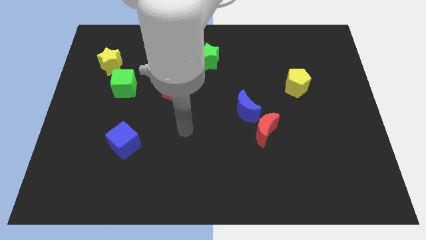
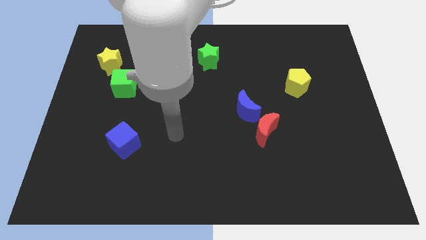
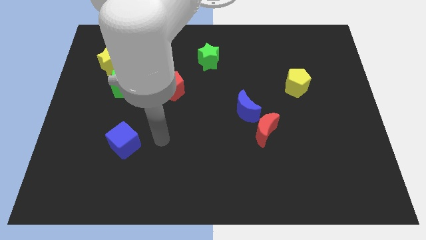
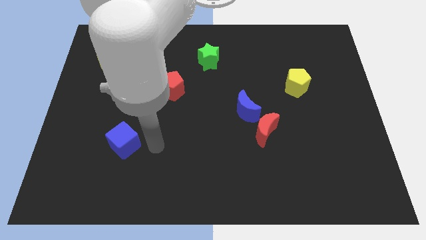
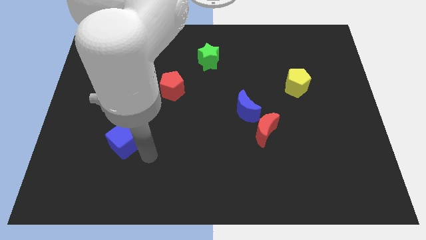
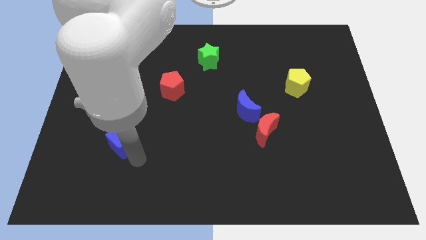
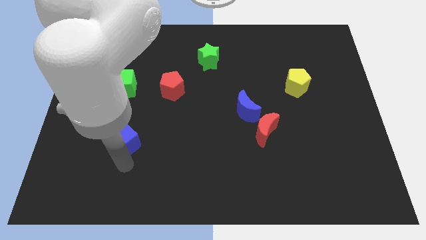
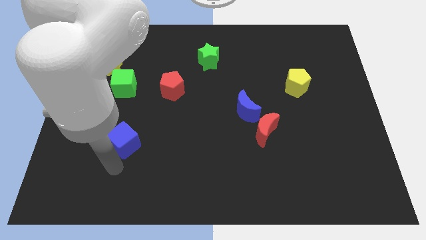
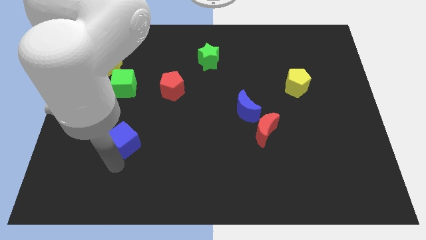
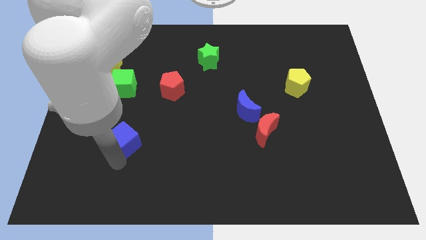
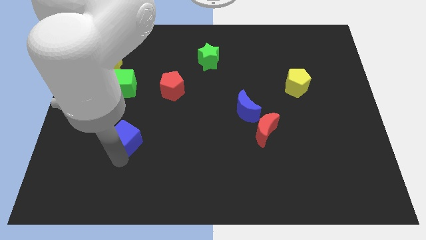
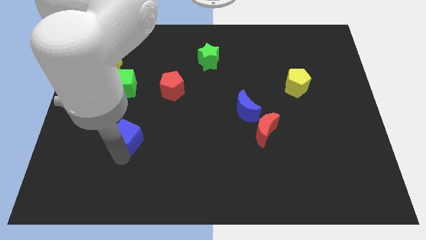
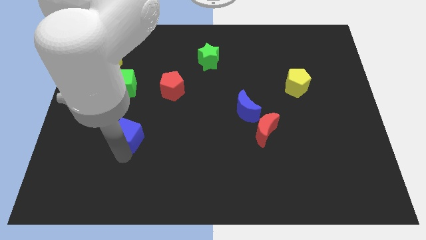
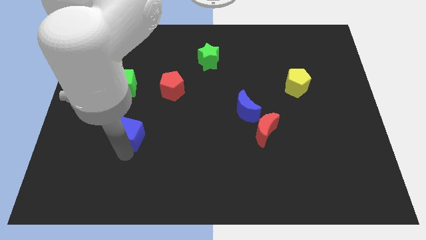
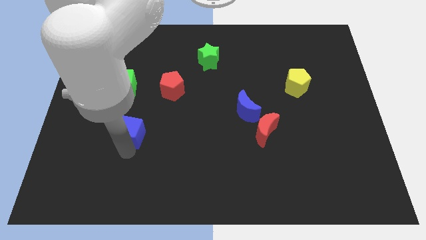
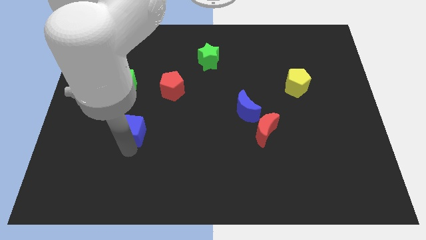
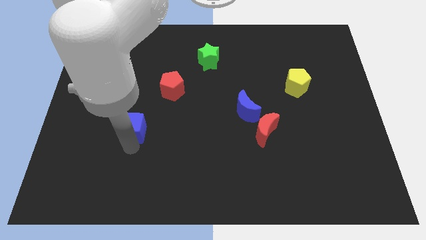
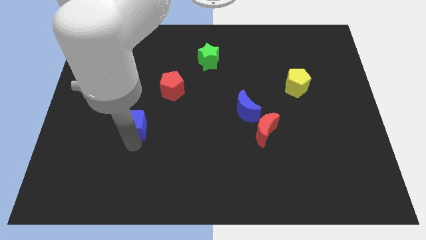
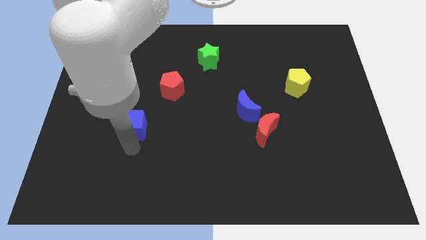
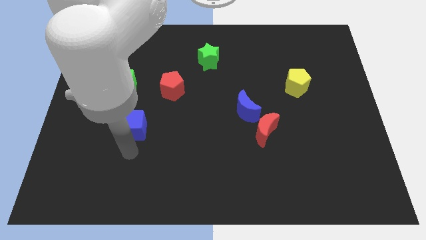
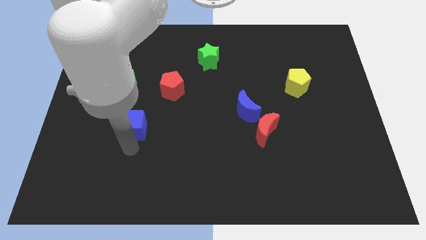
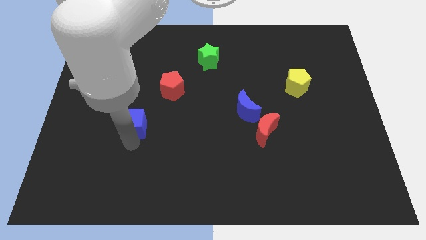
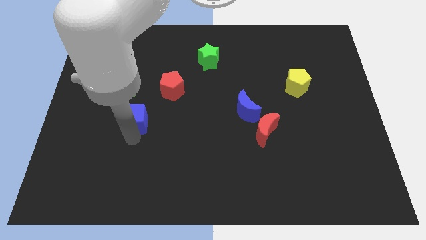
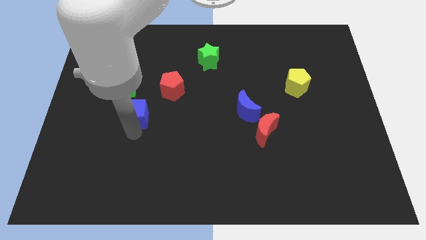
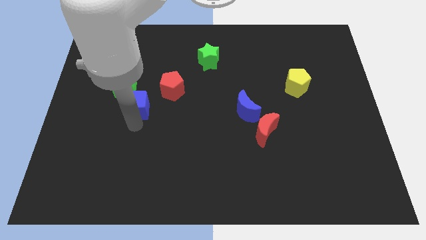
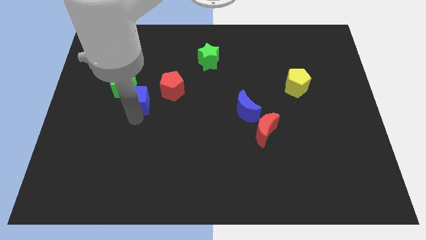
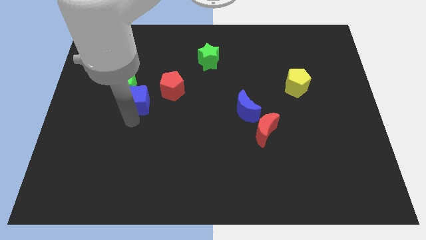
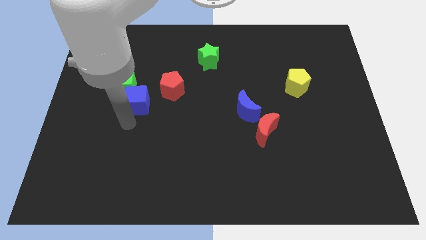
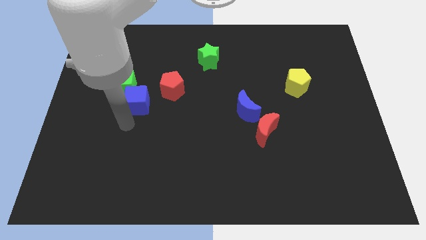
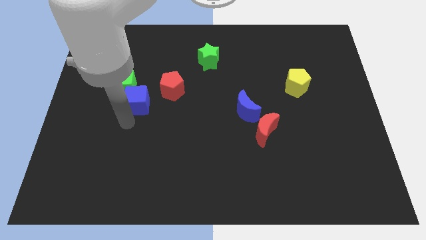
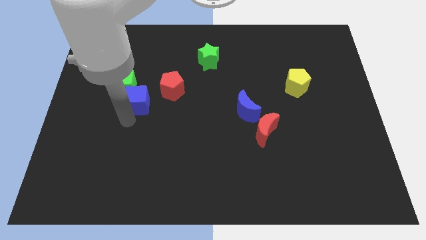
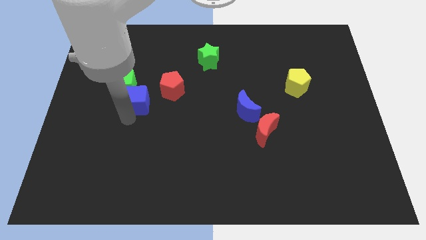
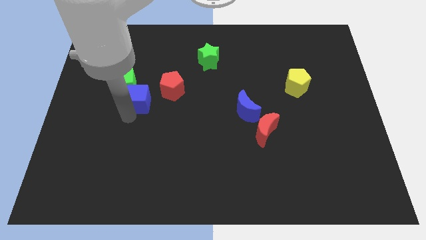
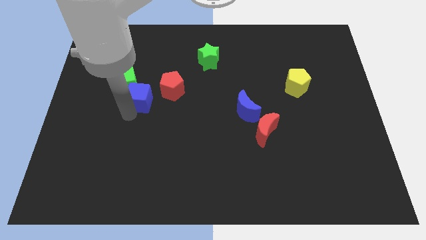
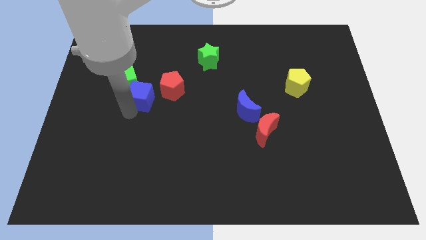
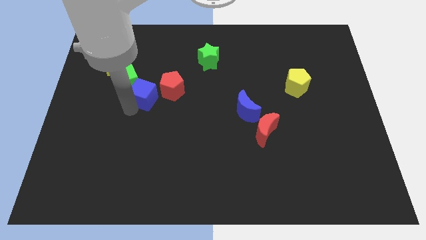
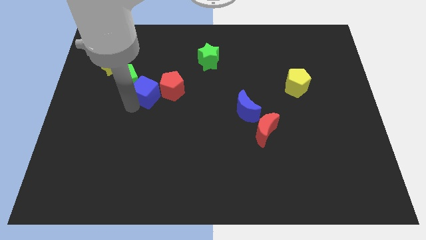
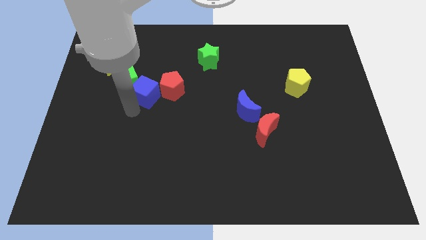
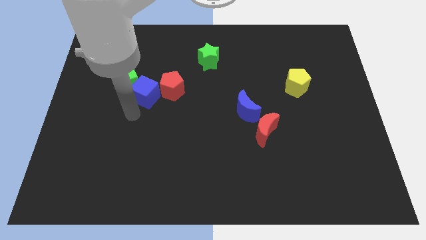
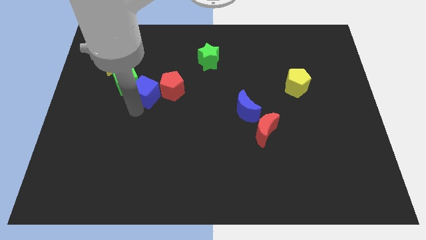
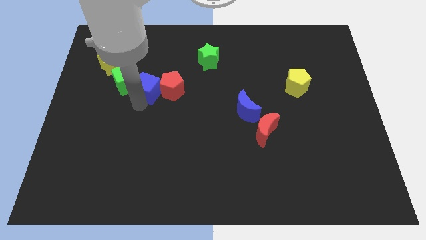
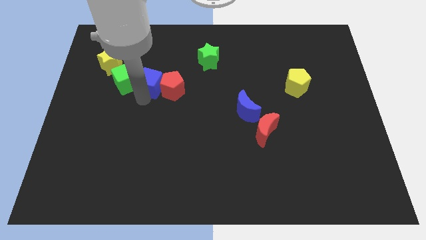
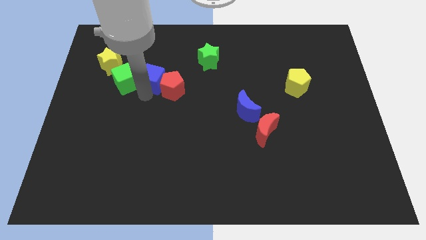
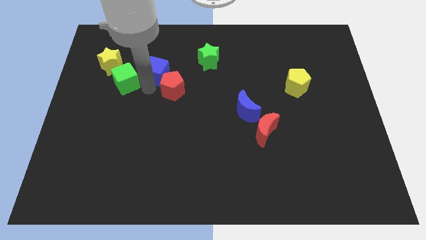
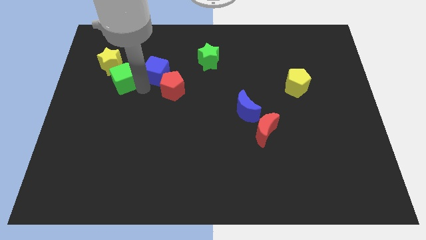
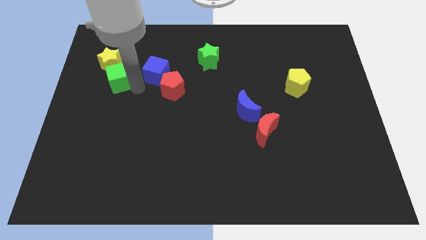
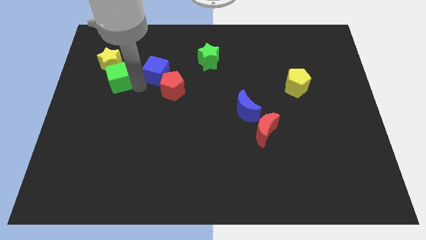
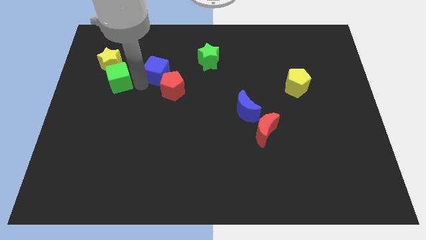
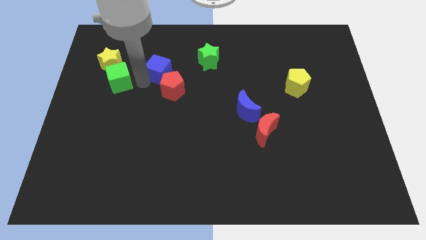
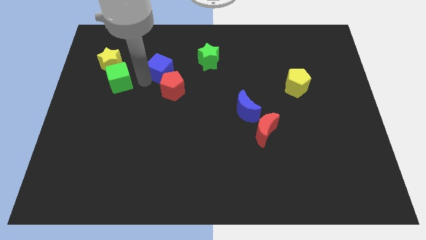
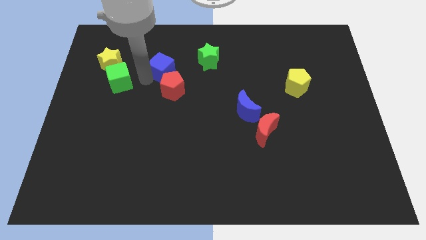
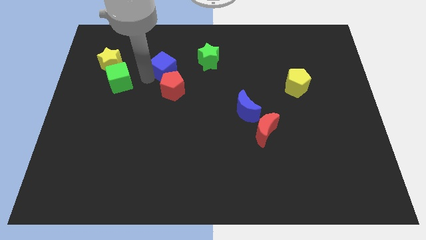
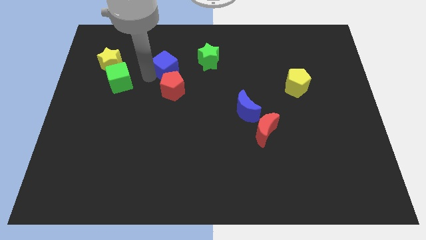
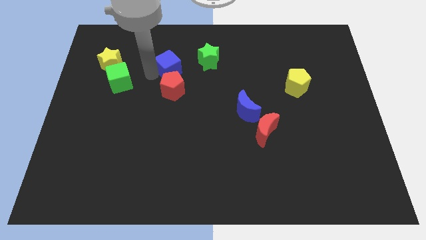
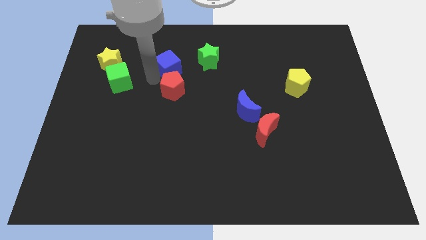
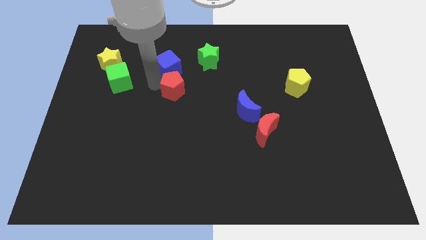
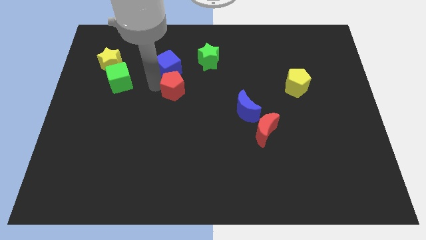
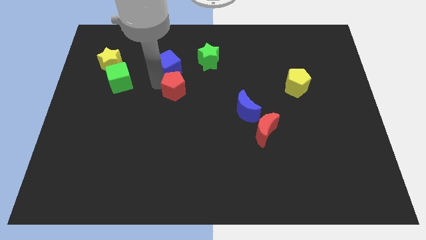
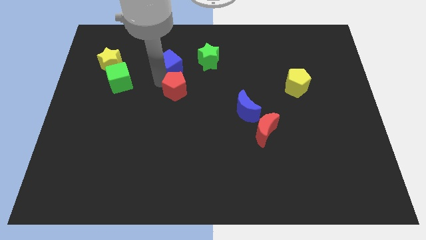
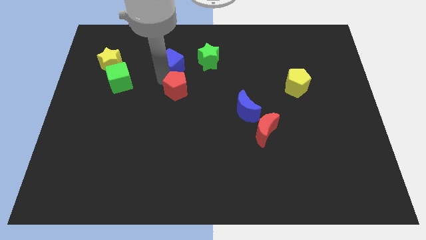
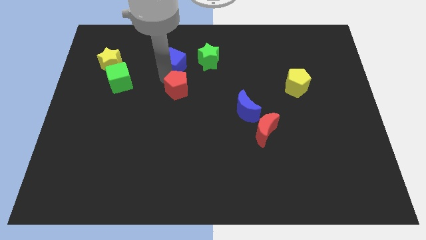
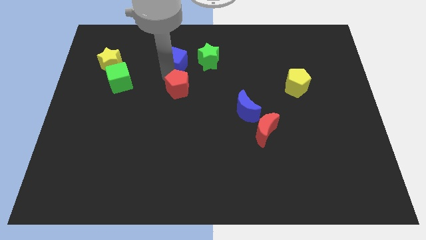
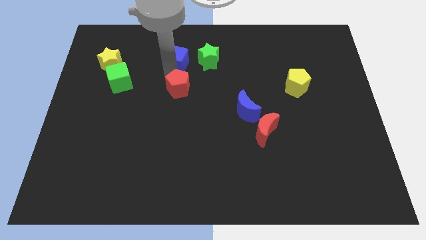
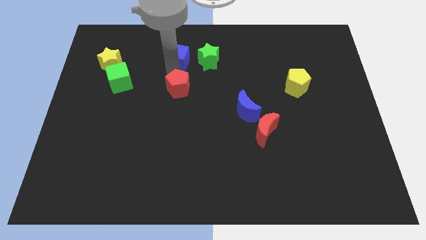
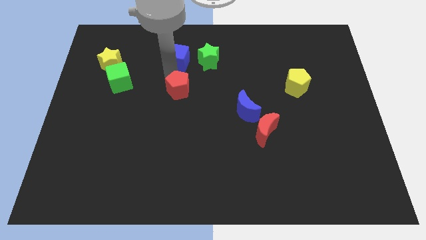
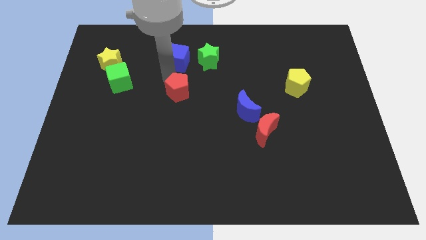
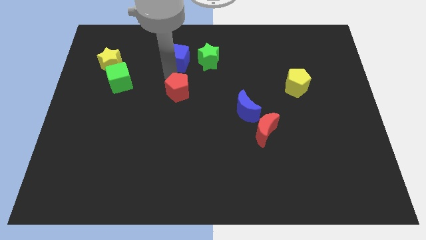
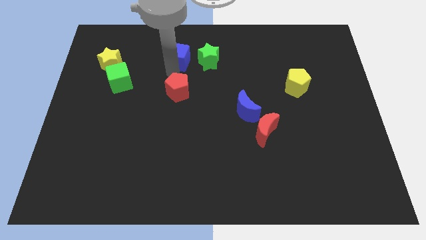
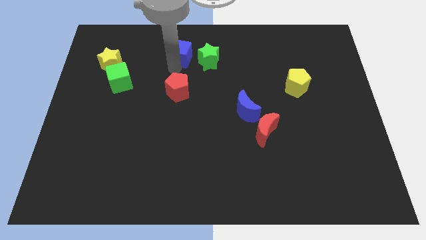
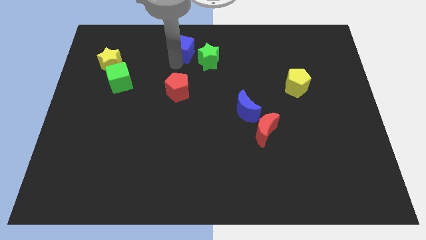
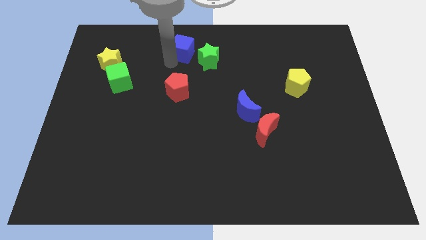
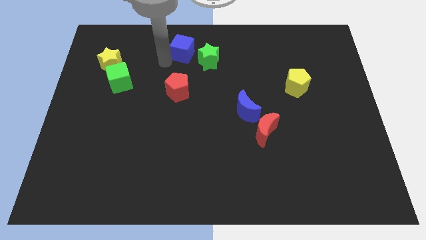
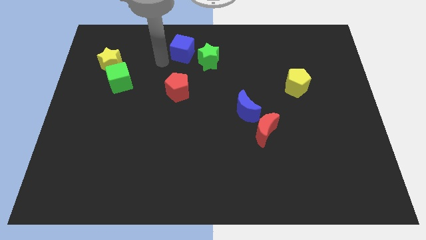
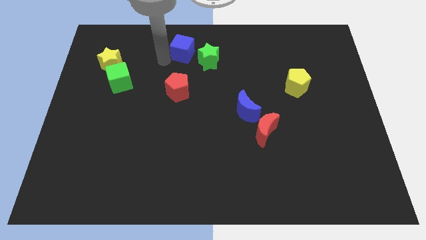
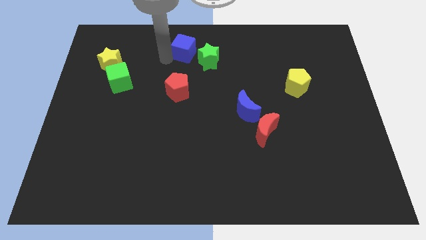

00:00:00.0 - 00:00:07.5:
move the blue cube to the top side

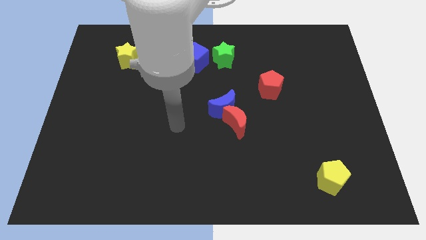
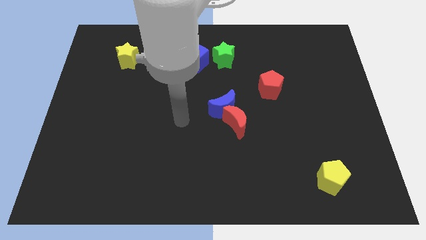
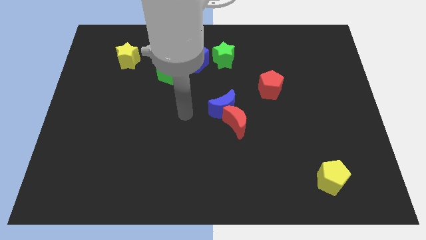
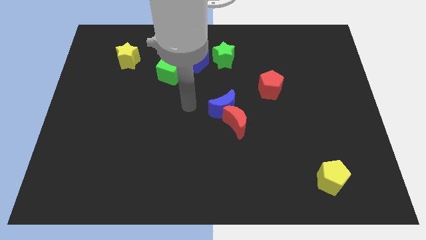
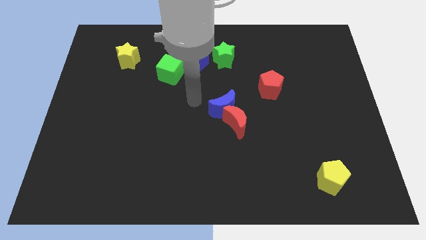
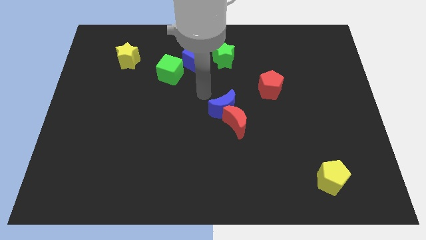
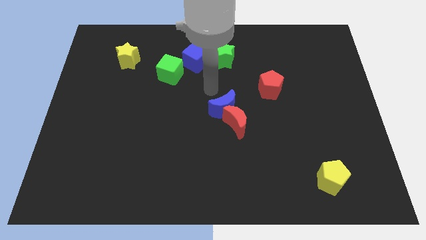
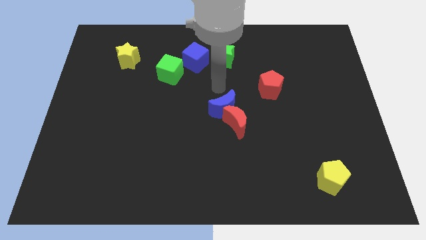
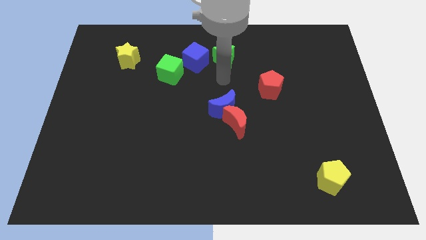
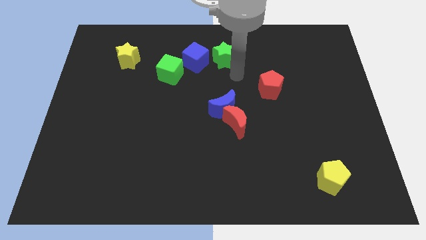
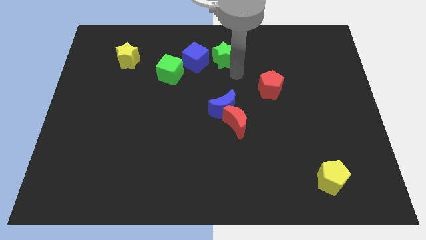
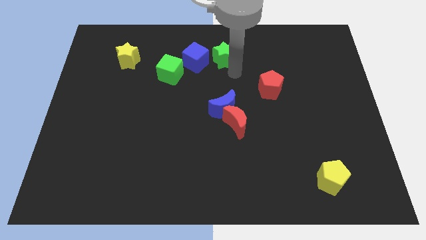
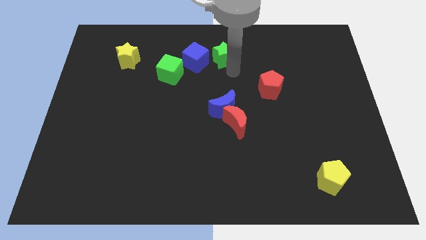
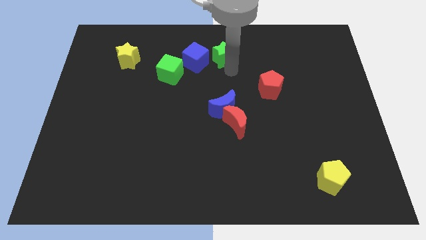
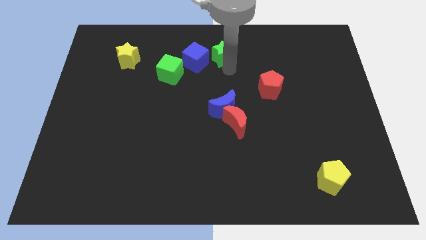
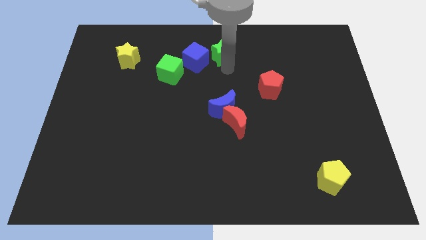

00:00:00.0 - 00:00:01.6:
move the green star to the towards your base
